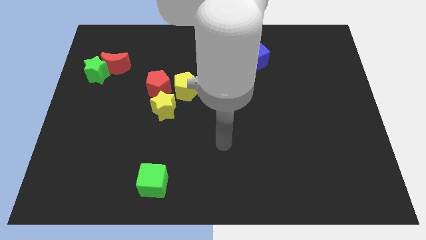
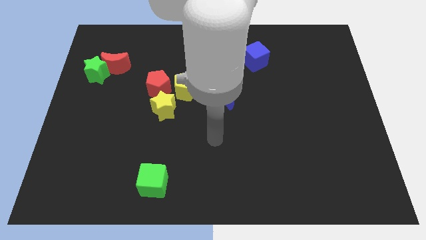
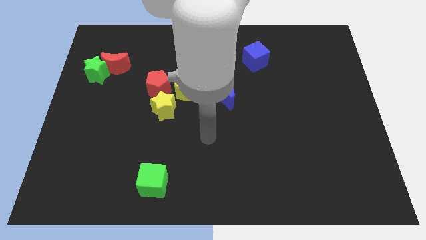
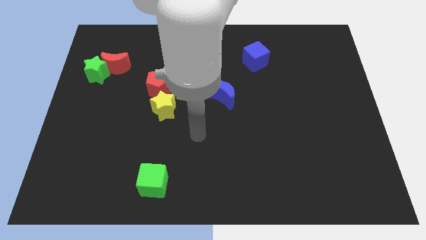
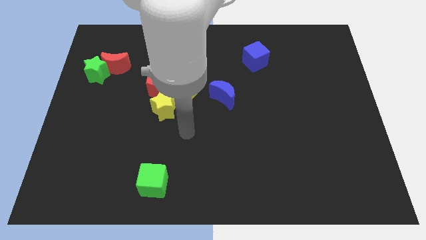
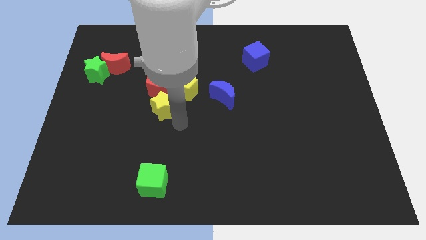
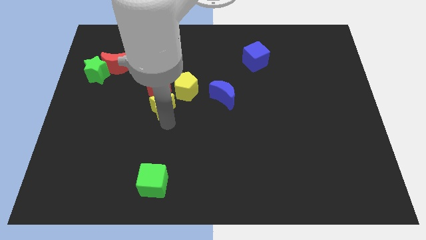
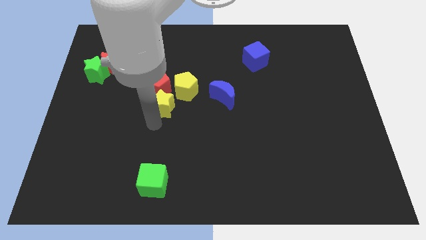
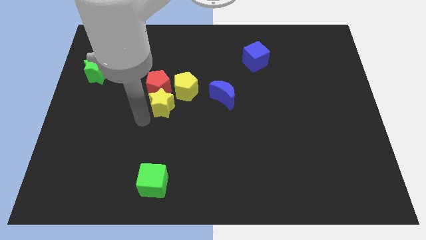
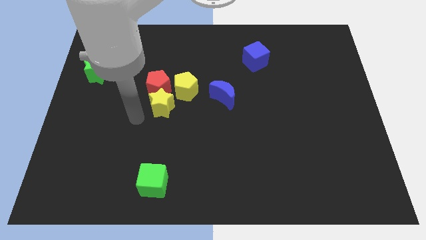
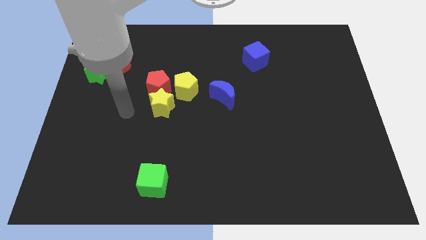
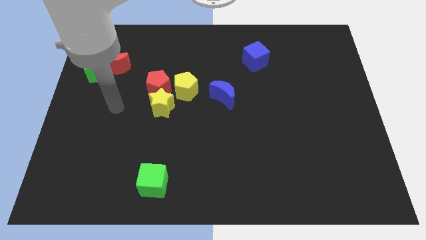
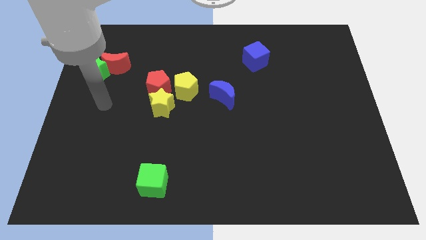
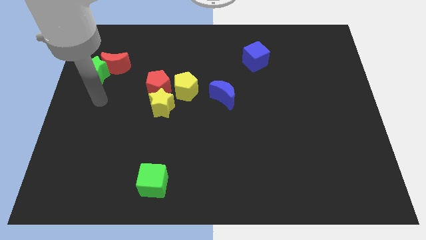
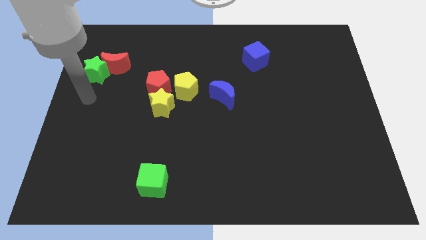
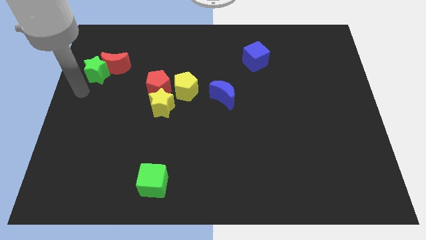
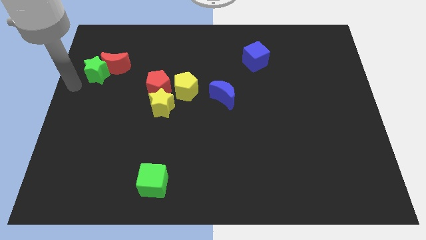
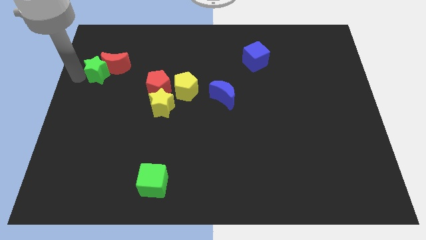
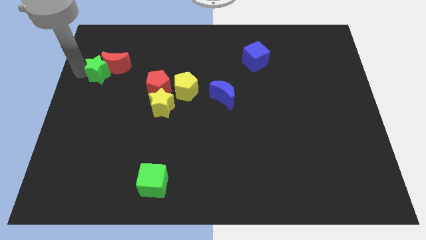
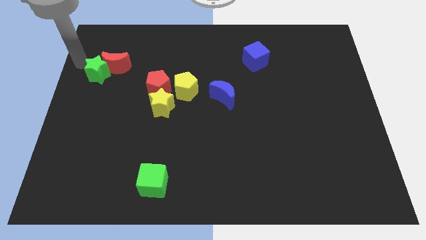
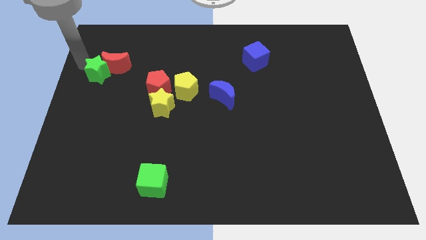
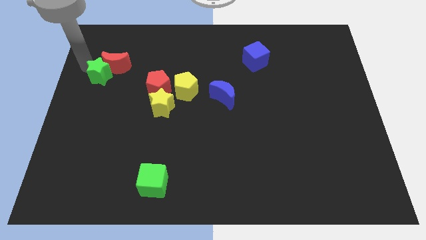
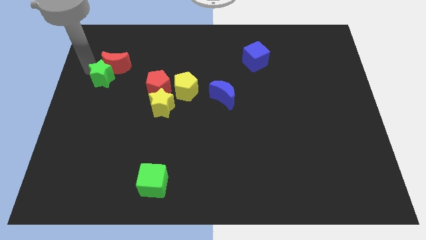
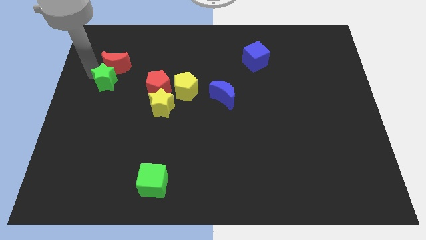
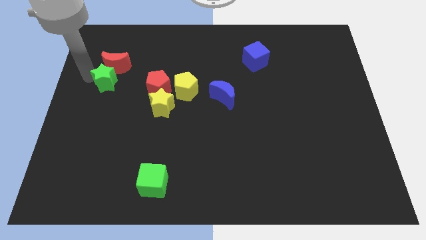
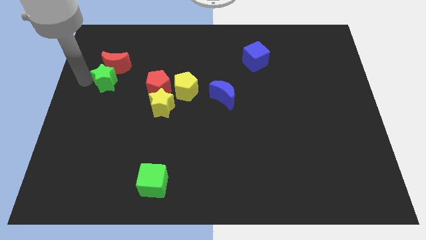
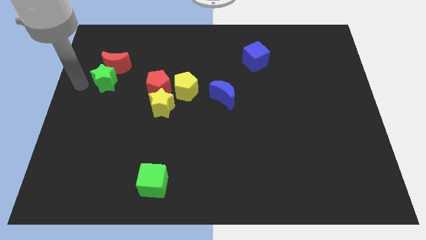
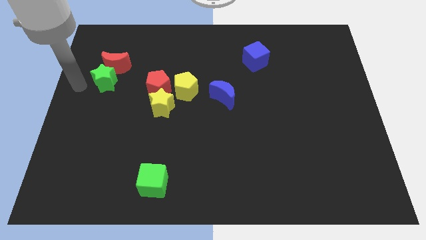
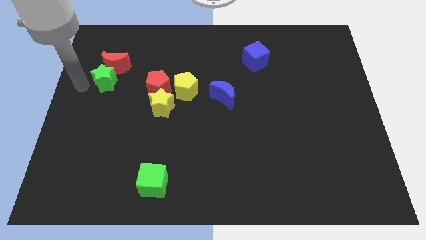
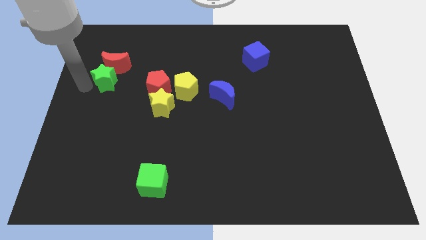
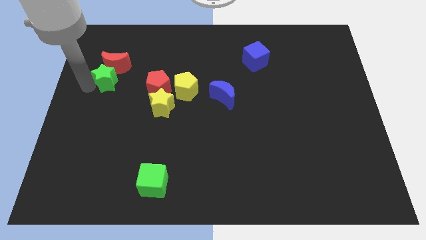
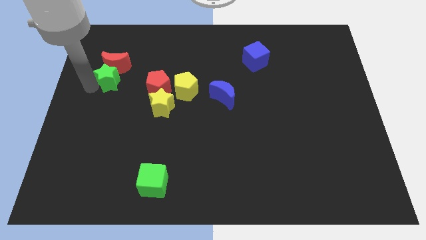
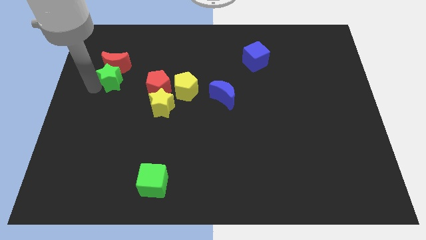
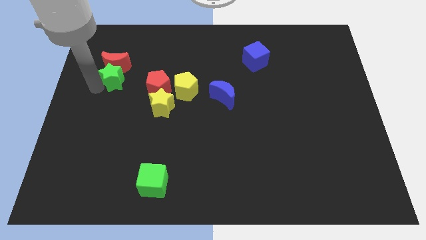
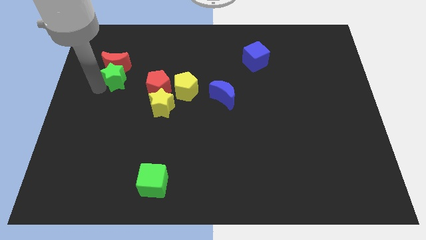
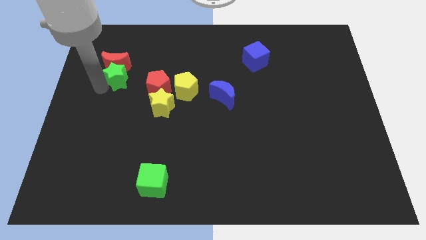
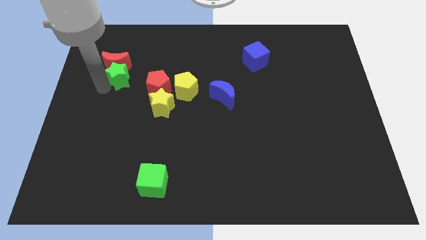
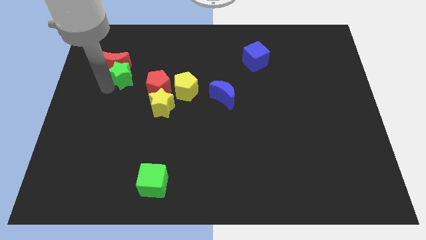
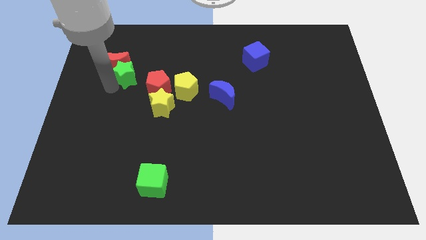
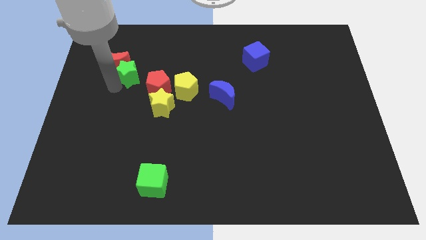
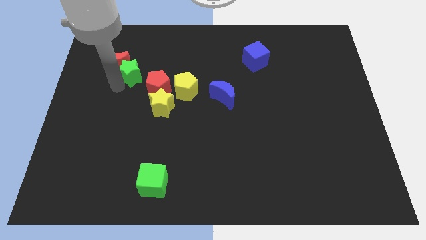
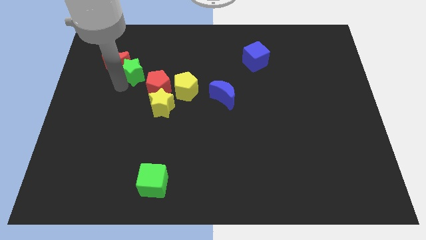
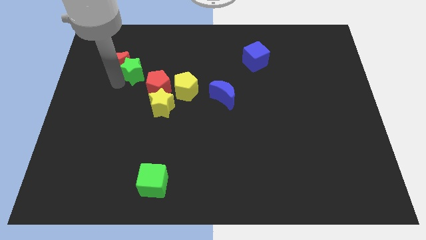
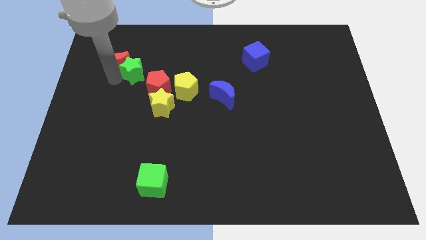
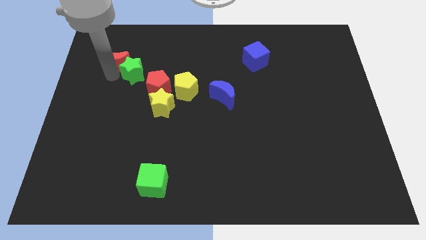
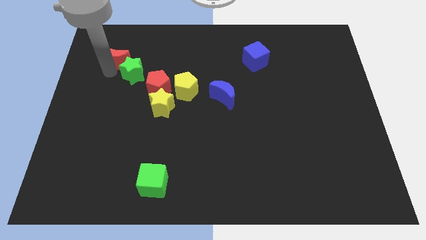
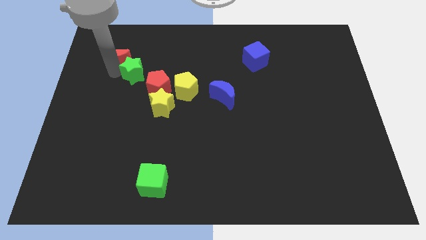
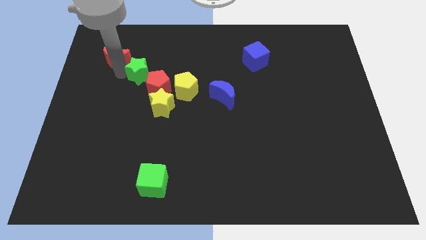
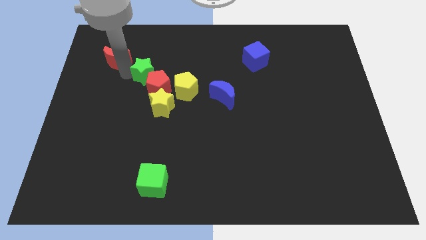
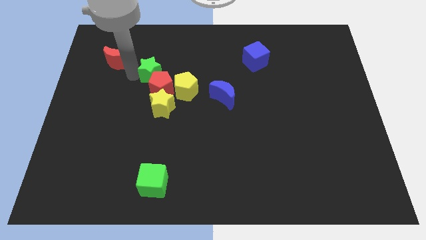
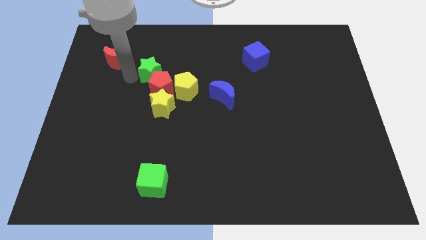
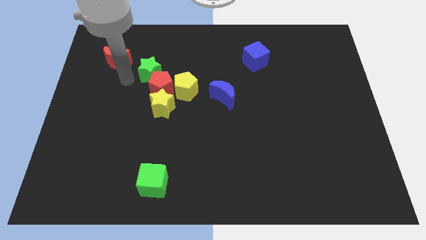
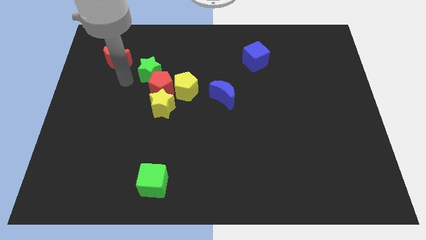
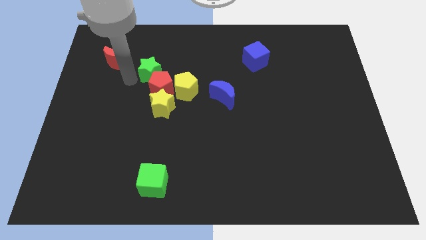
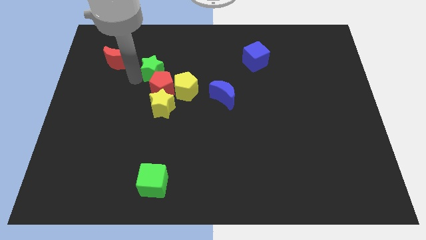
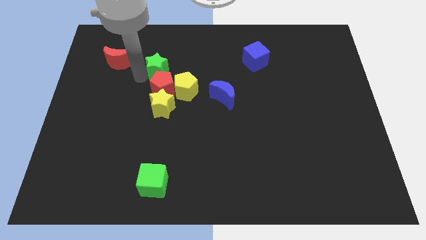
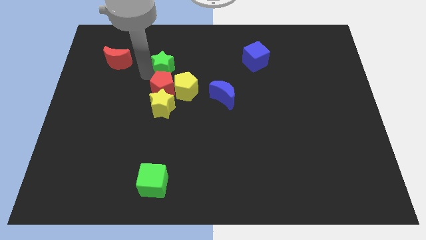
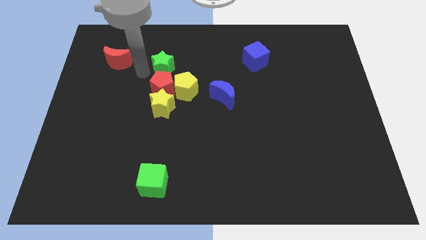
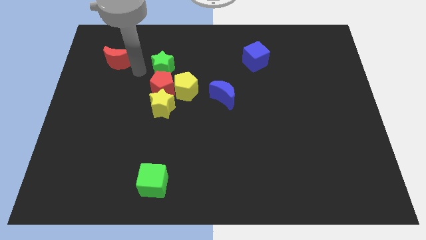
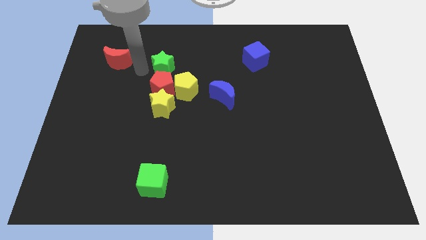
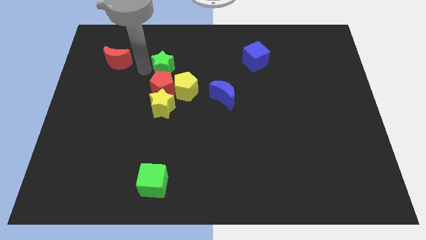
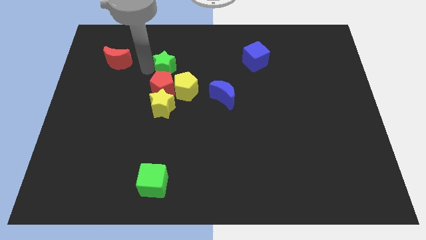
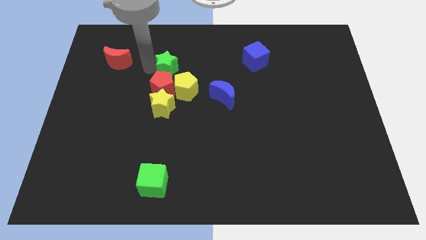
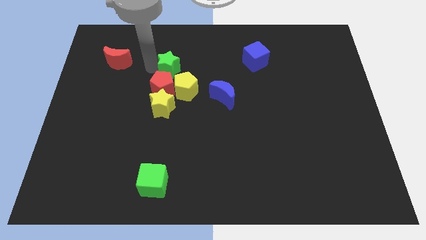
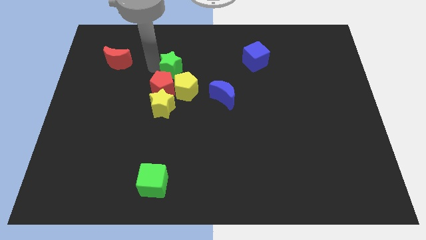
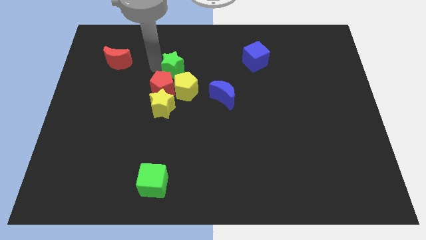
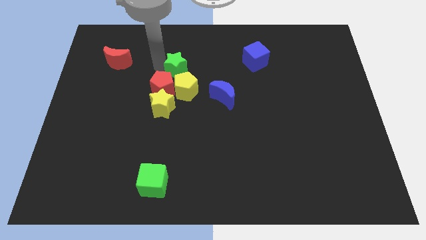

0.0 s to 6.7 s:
move the green star to the right

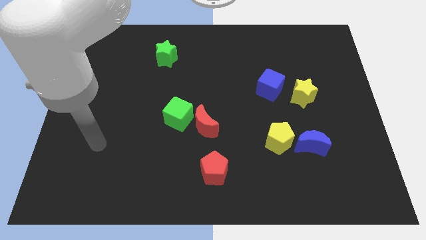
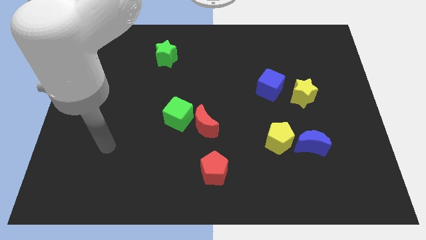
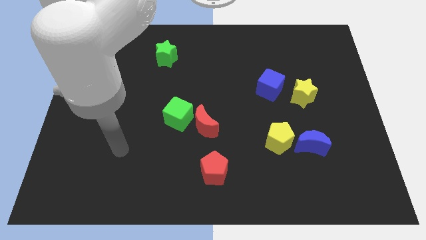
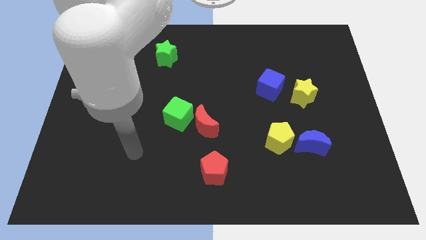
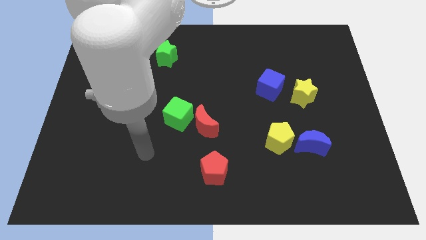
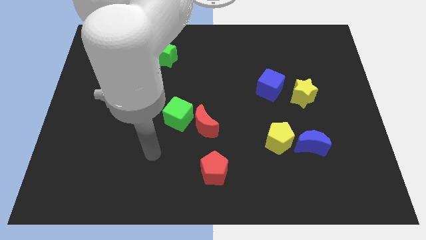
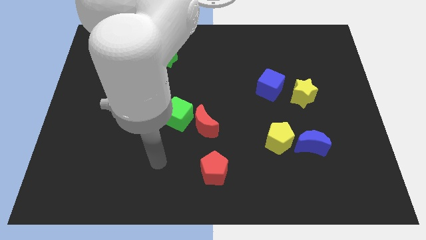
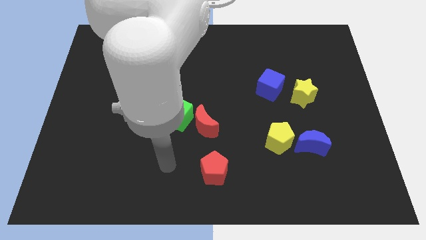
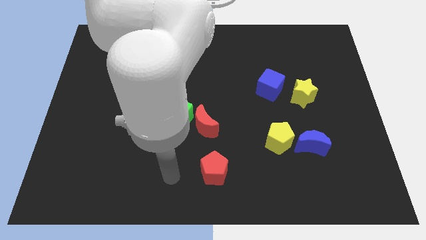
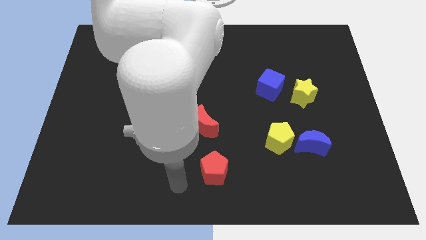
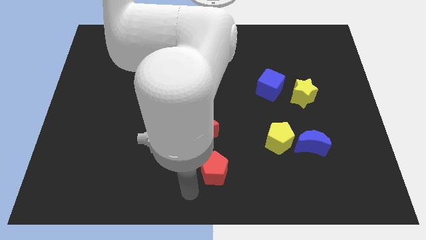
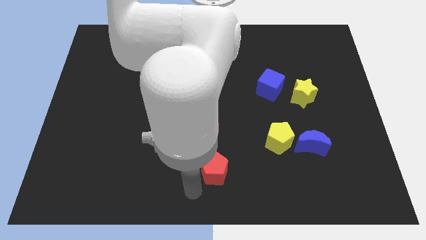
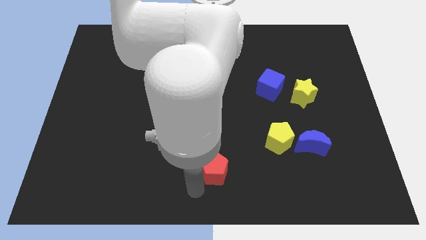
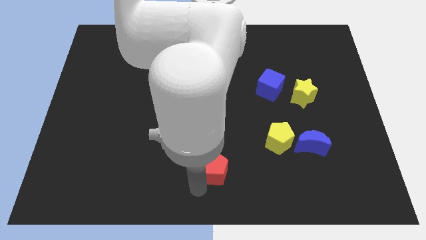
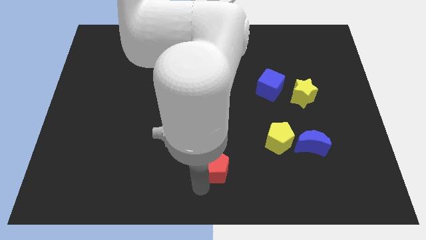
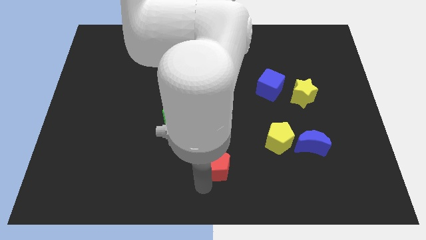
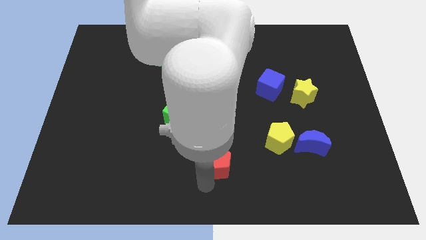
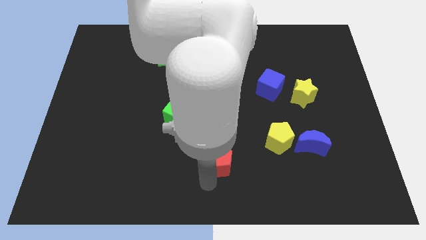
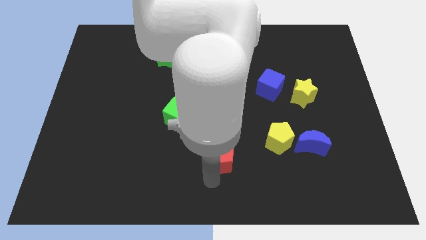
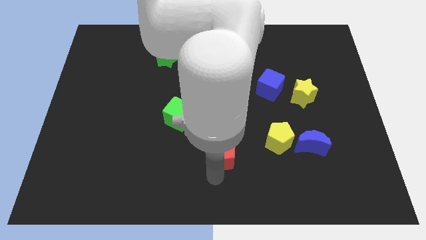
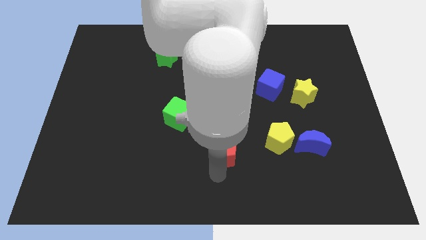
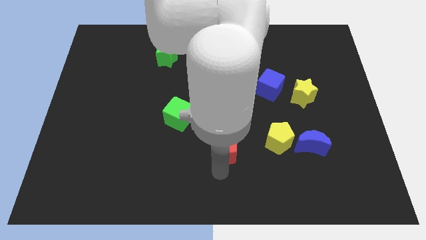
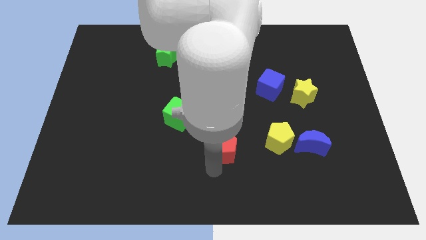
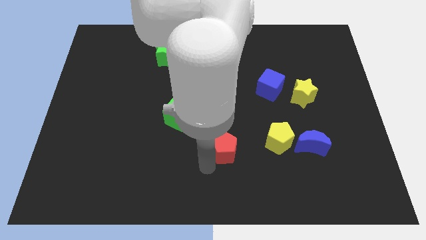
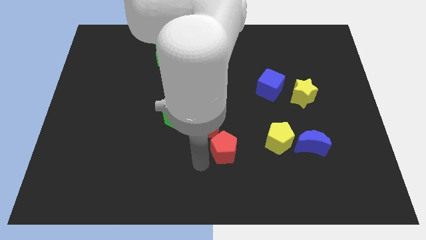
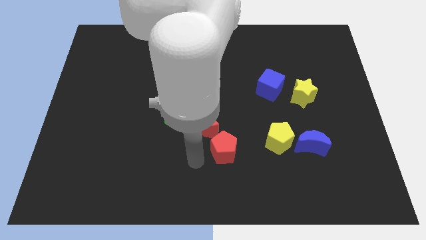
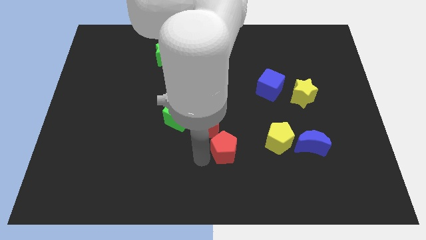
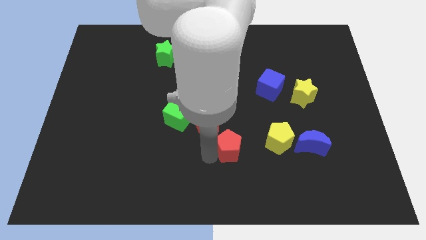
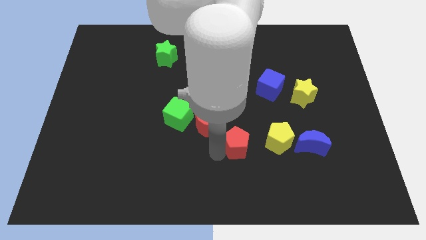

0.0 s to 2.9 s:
slightly slide the red pentagon diagonally up and to the right
